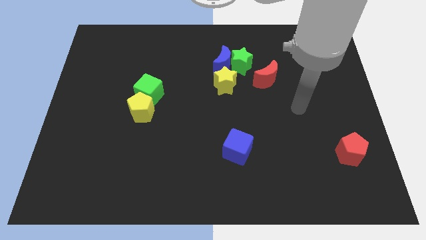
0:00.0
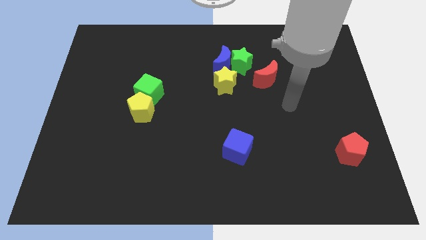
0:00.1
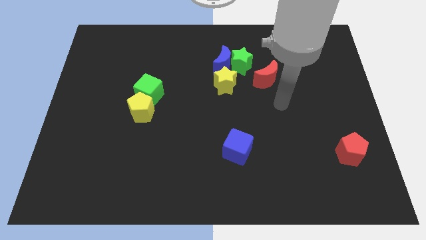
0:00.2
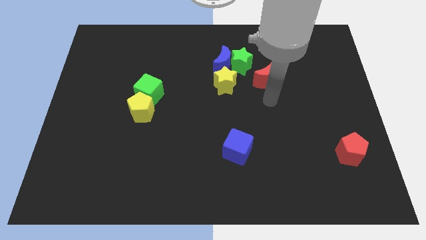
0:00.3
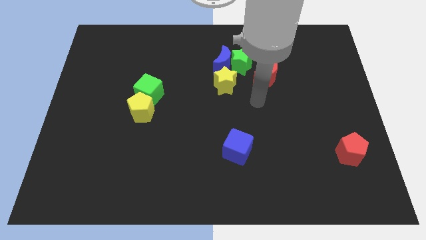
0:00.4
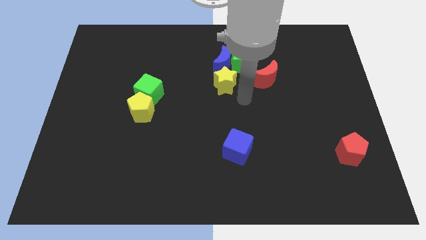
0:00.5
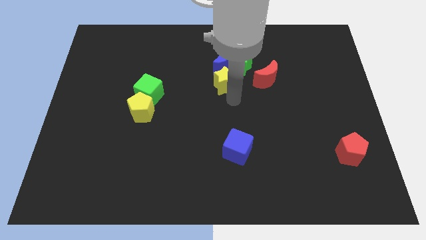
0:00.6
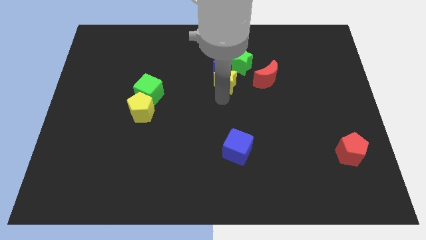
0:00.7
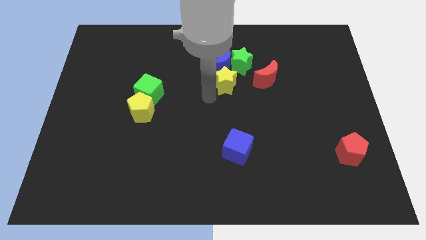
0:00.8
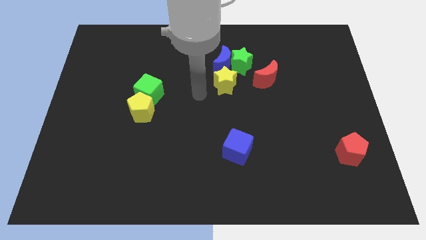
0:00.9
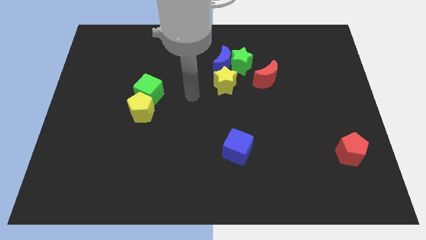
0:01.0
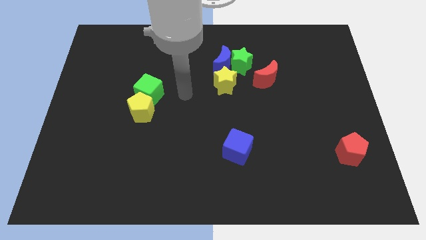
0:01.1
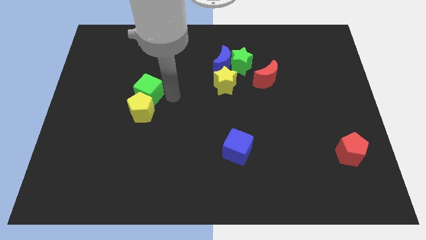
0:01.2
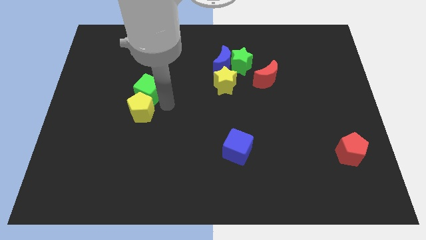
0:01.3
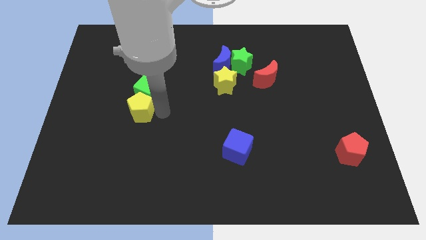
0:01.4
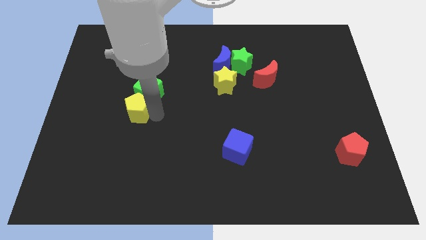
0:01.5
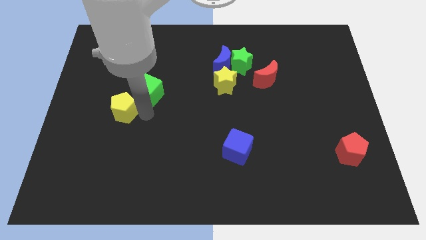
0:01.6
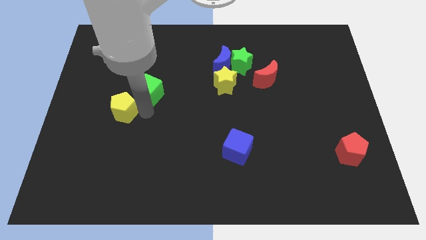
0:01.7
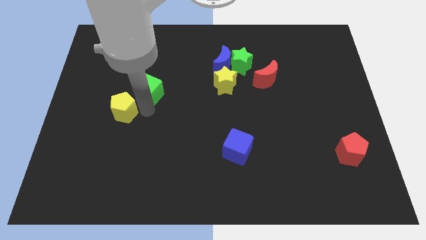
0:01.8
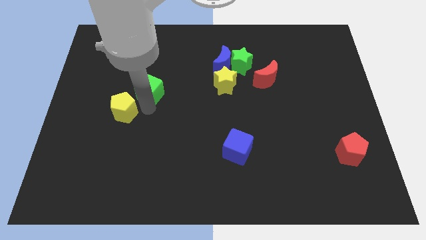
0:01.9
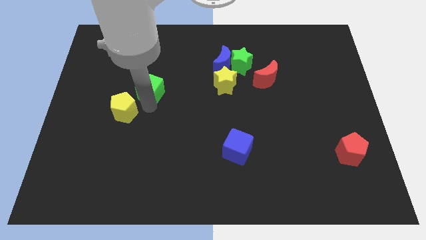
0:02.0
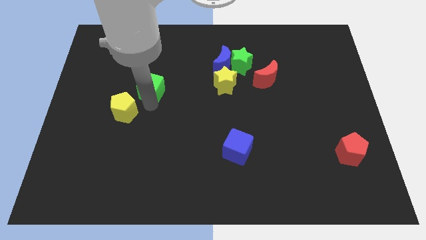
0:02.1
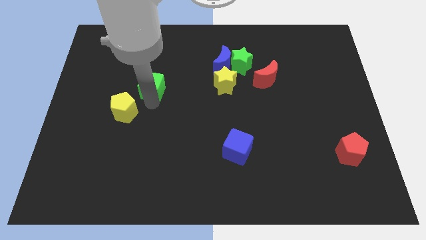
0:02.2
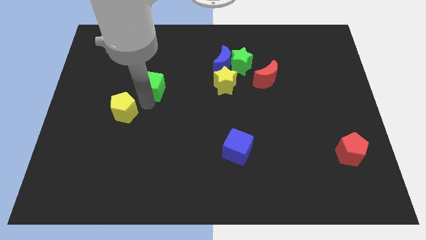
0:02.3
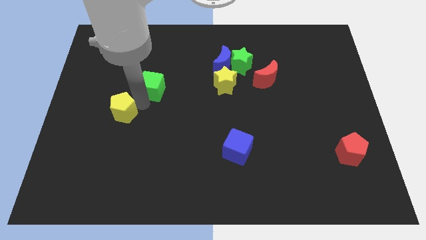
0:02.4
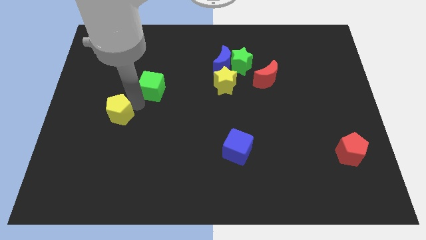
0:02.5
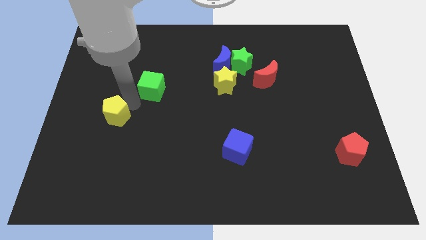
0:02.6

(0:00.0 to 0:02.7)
separate the green cube from the yellow pentagon

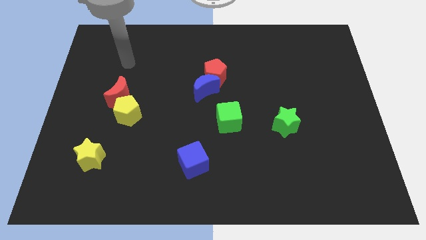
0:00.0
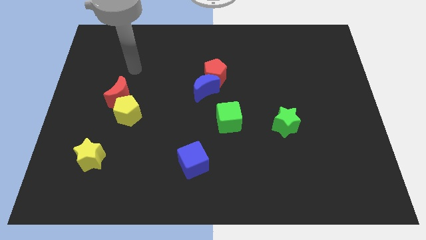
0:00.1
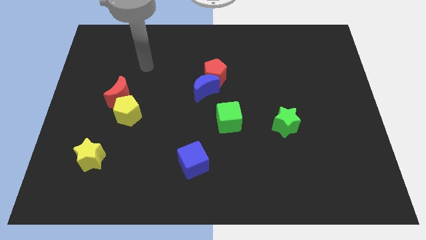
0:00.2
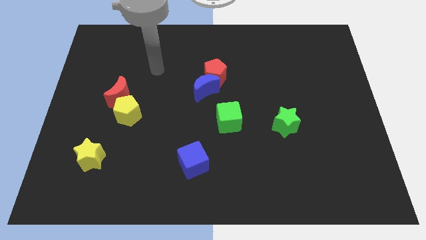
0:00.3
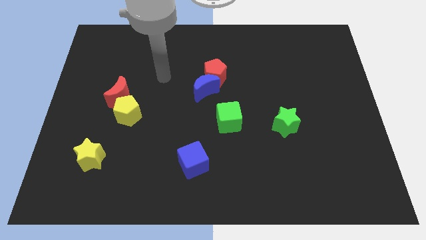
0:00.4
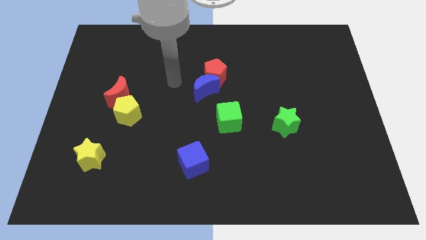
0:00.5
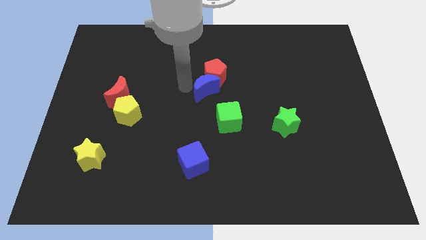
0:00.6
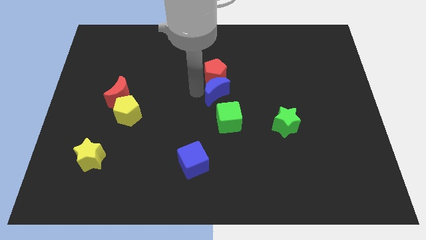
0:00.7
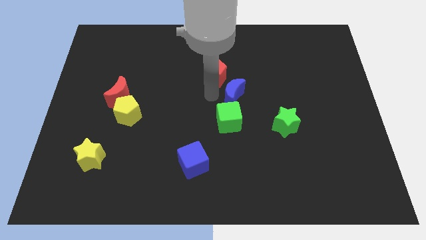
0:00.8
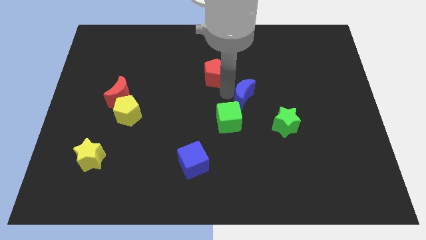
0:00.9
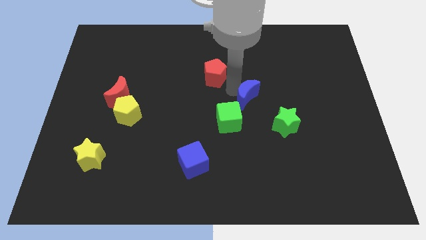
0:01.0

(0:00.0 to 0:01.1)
move the red pentagon away from the blue moon

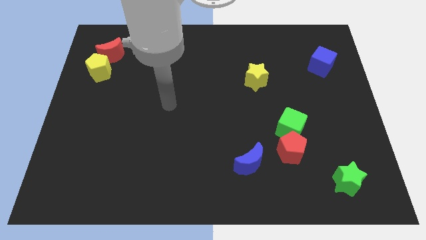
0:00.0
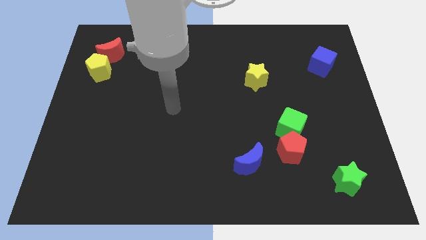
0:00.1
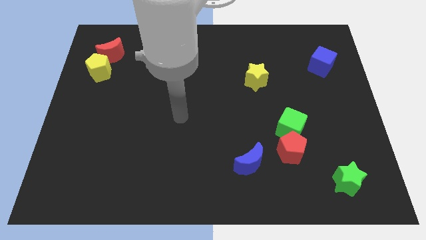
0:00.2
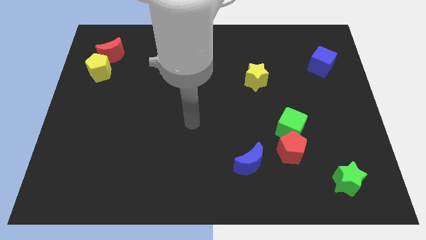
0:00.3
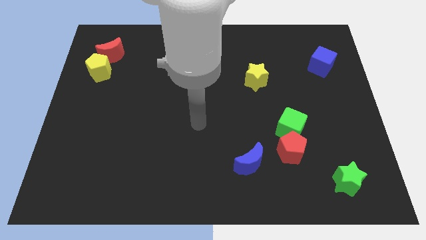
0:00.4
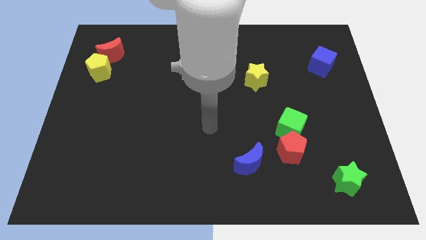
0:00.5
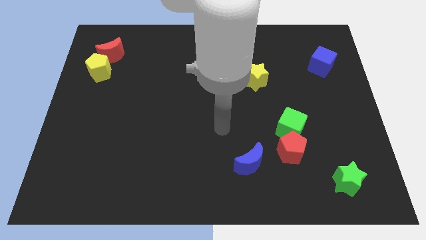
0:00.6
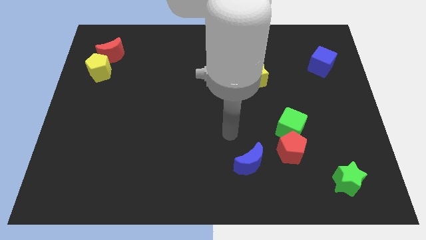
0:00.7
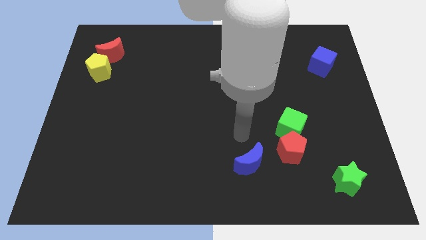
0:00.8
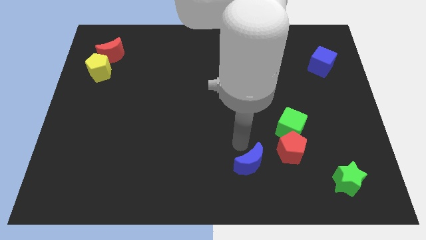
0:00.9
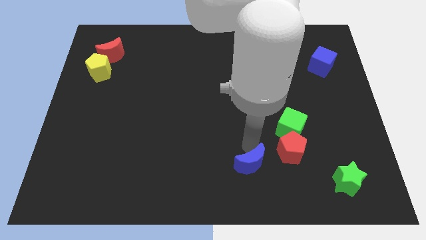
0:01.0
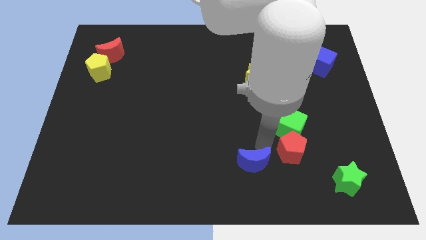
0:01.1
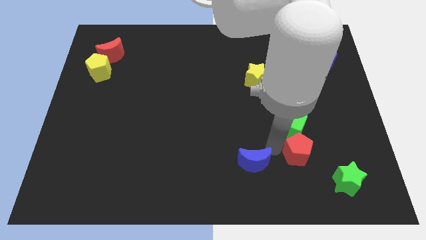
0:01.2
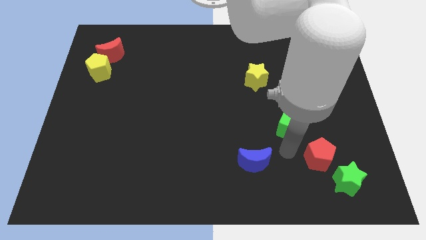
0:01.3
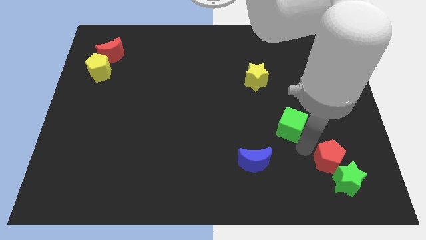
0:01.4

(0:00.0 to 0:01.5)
separate the green cube from the red pentagon

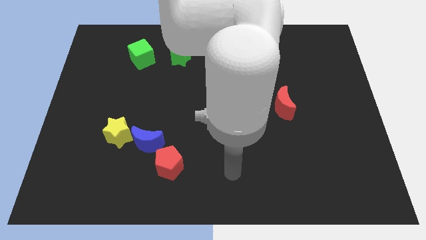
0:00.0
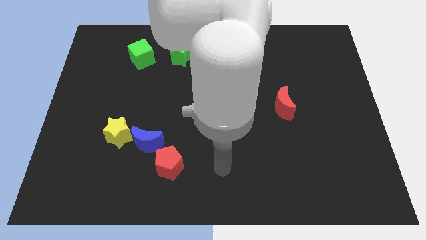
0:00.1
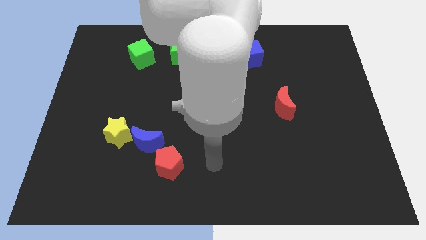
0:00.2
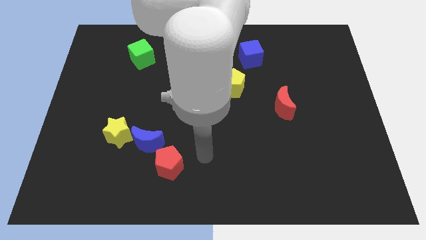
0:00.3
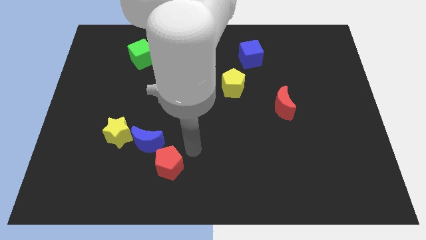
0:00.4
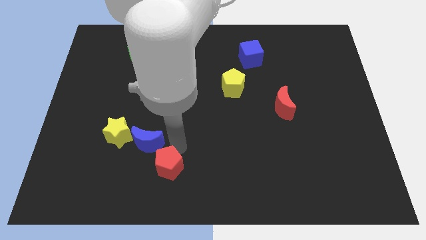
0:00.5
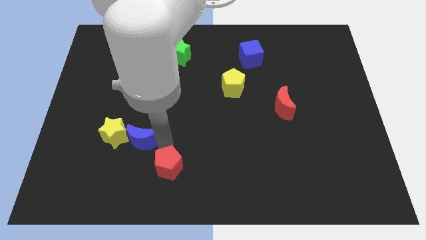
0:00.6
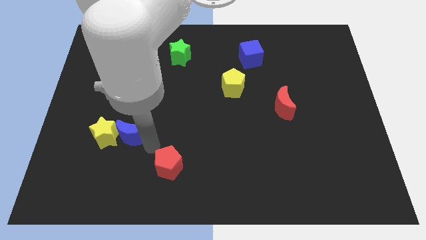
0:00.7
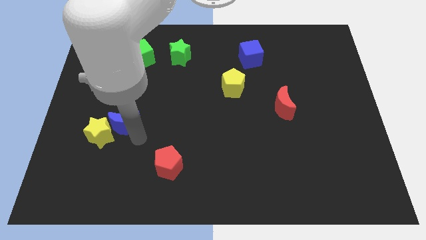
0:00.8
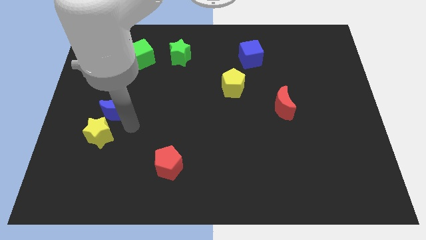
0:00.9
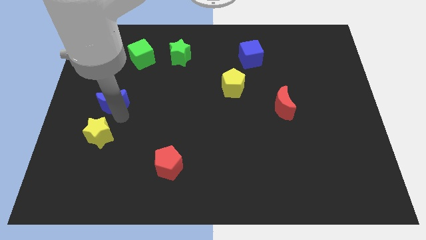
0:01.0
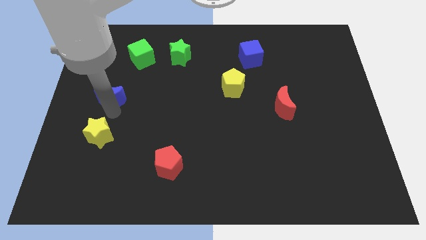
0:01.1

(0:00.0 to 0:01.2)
separate the yellow star from the blue moon

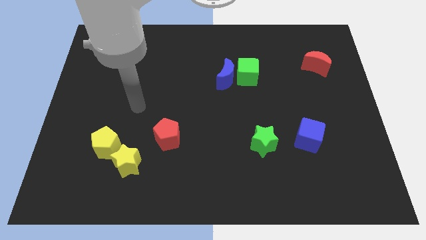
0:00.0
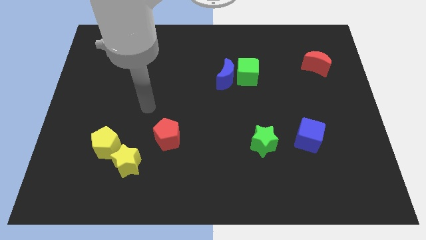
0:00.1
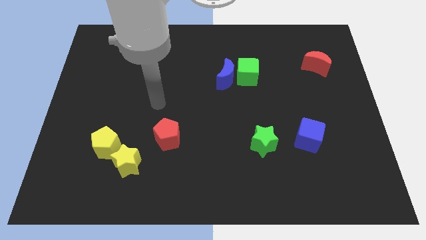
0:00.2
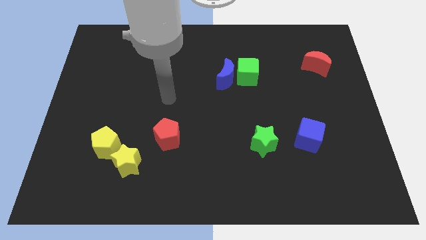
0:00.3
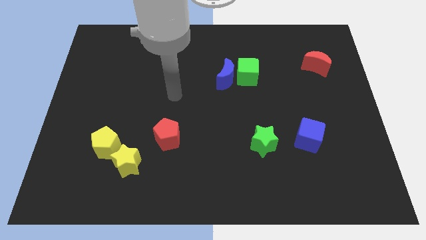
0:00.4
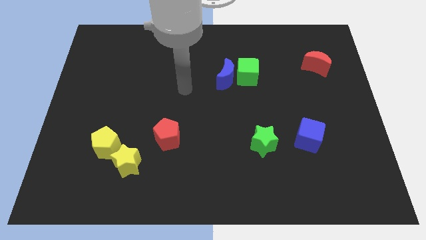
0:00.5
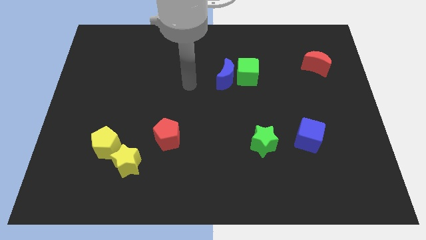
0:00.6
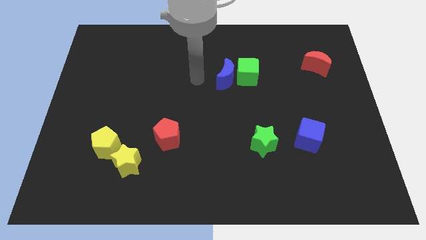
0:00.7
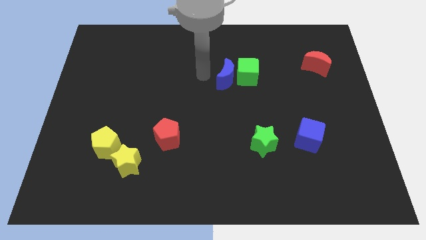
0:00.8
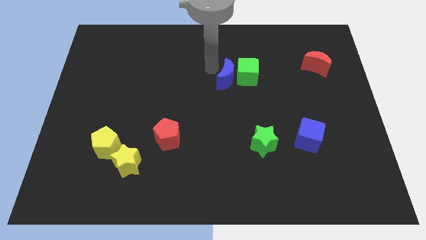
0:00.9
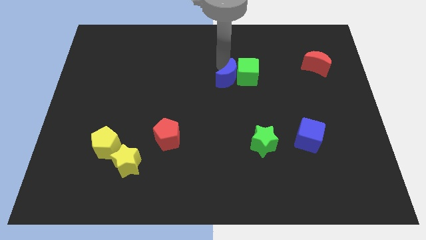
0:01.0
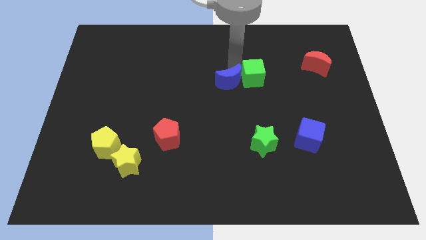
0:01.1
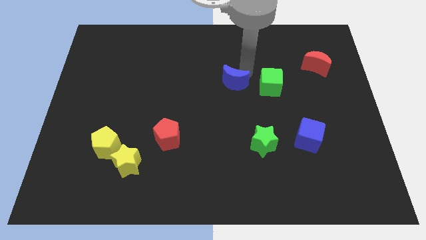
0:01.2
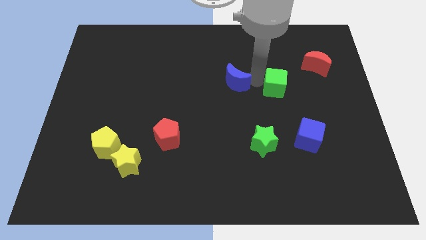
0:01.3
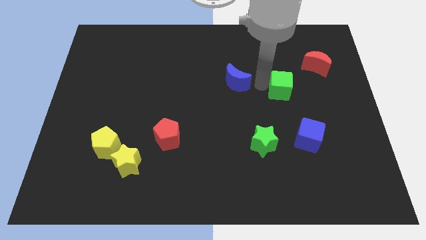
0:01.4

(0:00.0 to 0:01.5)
move the blue moon away from the green cube

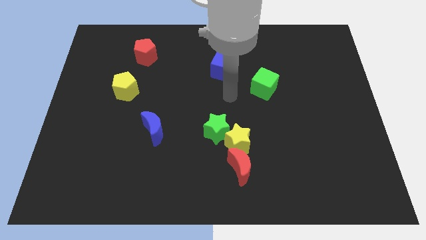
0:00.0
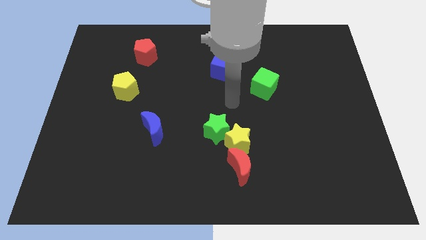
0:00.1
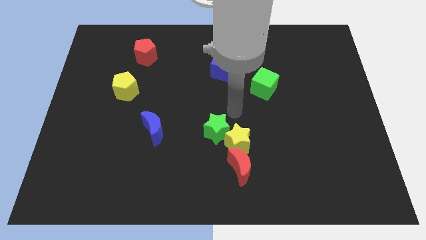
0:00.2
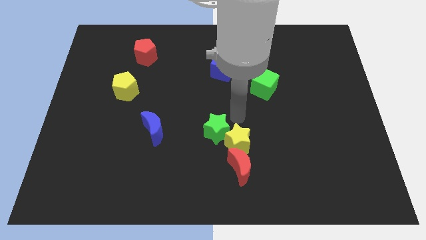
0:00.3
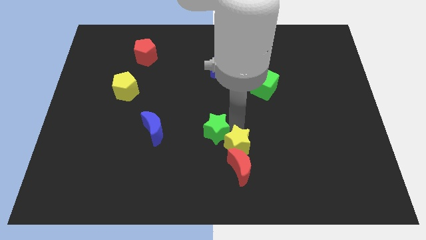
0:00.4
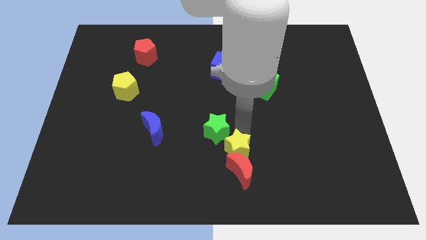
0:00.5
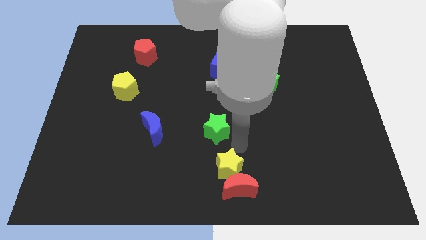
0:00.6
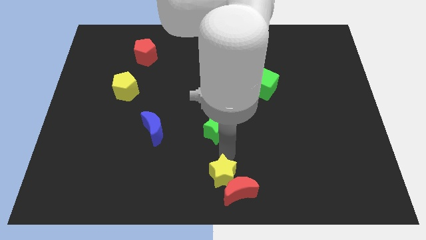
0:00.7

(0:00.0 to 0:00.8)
separate the green star from the yellow star

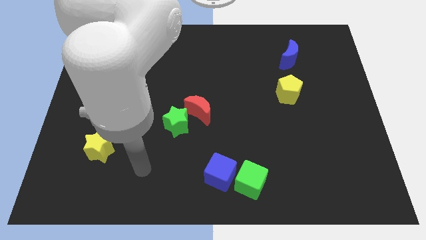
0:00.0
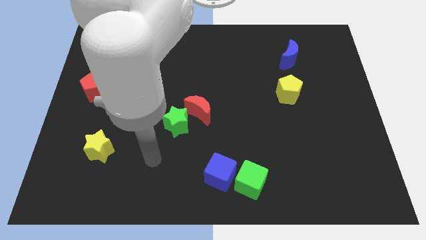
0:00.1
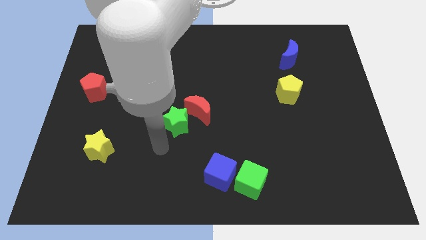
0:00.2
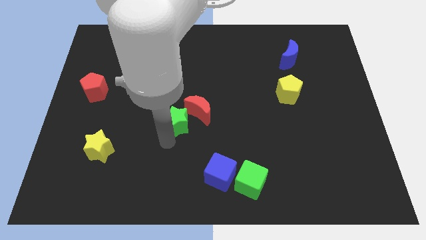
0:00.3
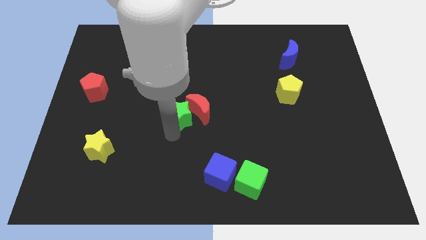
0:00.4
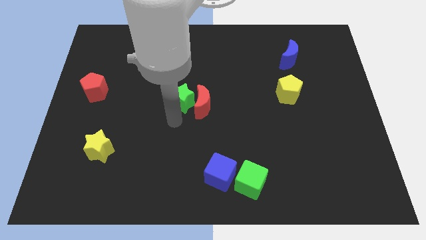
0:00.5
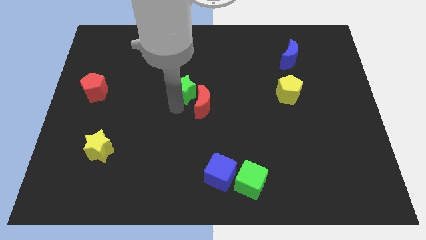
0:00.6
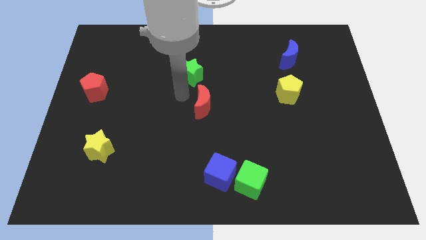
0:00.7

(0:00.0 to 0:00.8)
separate the red moon from the green star
